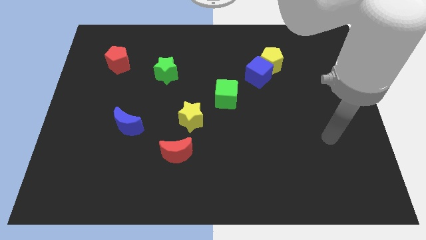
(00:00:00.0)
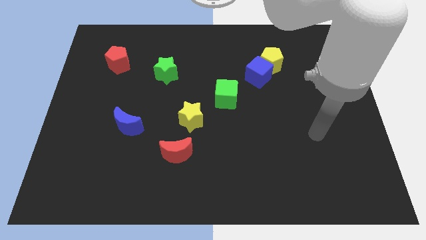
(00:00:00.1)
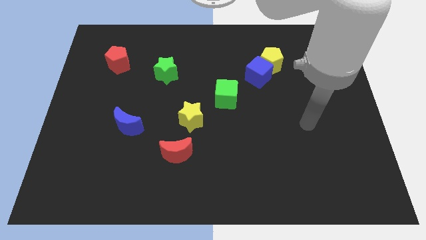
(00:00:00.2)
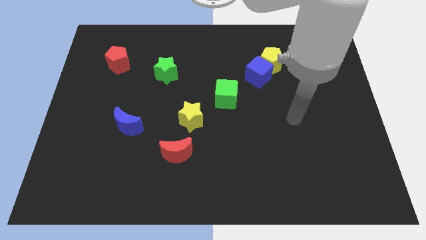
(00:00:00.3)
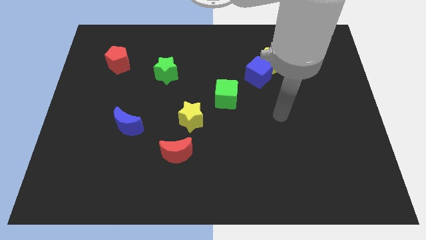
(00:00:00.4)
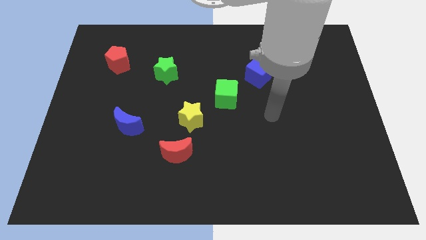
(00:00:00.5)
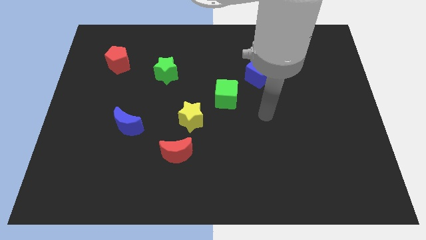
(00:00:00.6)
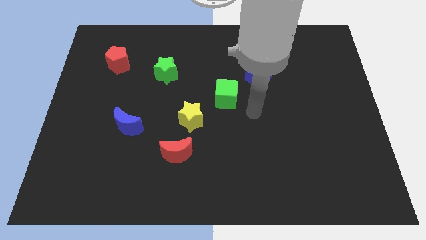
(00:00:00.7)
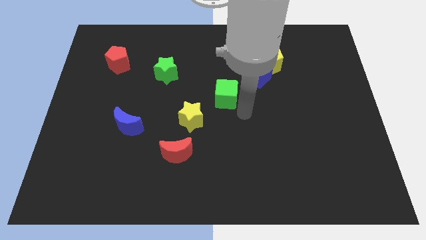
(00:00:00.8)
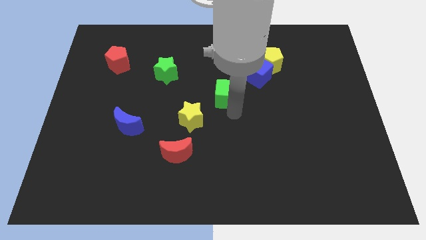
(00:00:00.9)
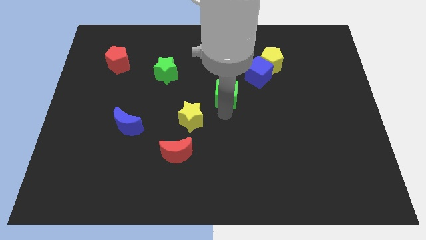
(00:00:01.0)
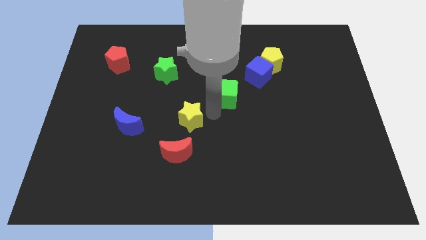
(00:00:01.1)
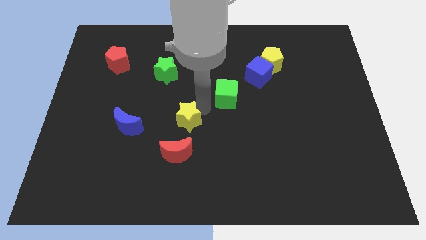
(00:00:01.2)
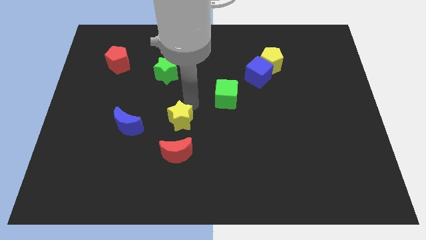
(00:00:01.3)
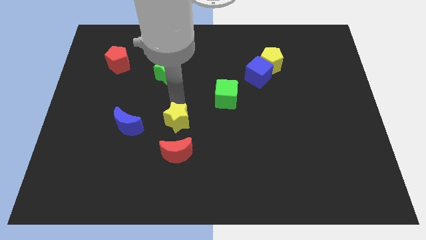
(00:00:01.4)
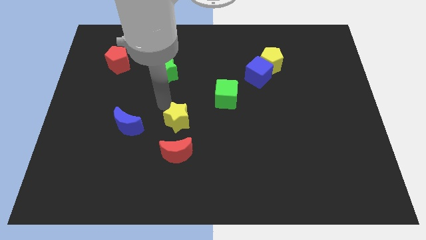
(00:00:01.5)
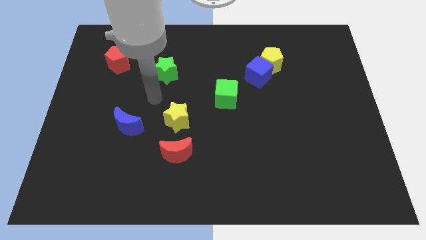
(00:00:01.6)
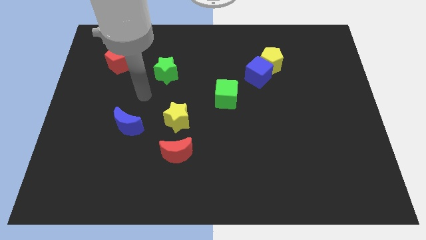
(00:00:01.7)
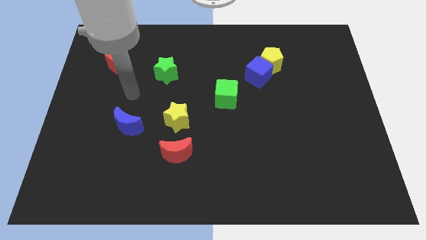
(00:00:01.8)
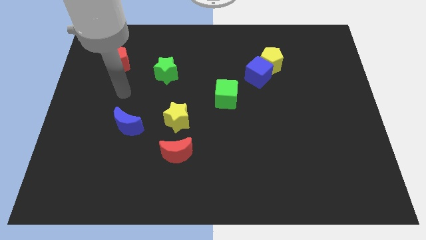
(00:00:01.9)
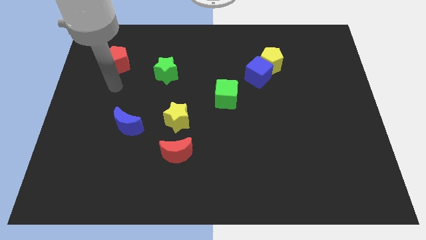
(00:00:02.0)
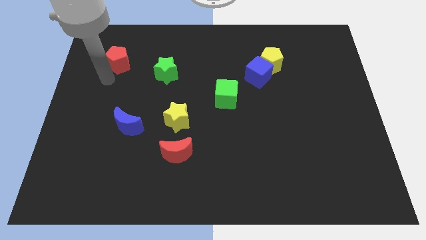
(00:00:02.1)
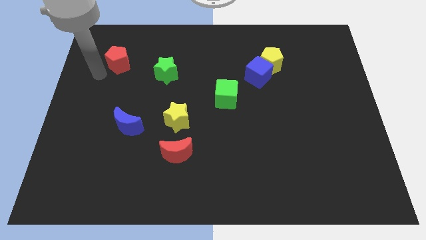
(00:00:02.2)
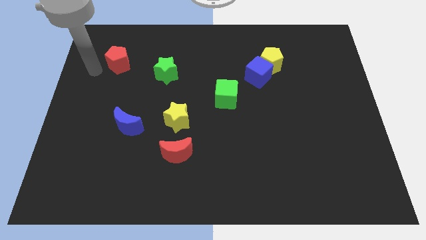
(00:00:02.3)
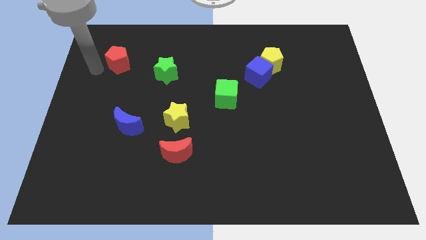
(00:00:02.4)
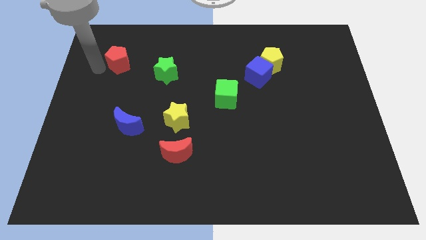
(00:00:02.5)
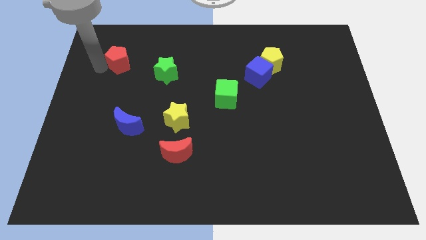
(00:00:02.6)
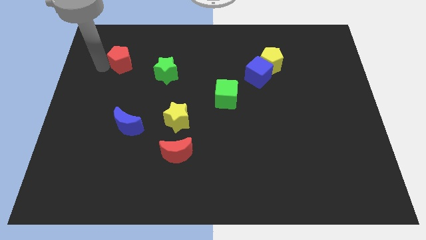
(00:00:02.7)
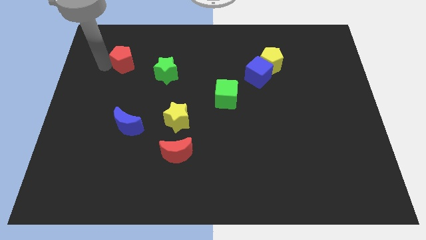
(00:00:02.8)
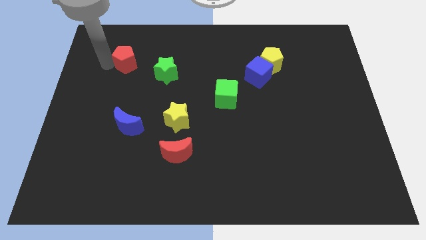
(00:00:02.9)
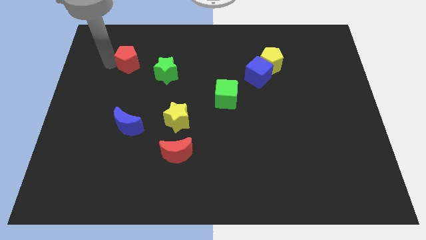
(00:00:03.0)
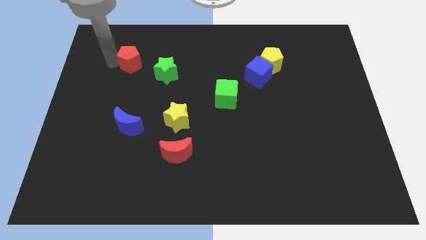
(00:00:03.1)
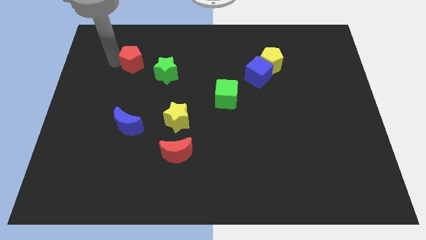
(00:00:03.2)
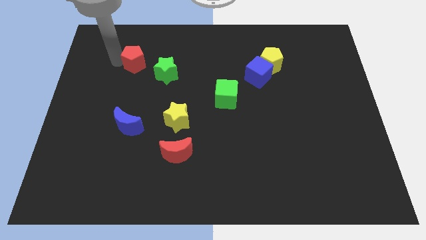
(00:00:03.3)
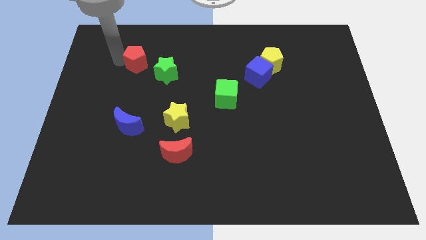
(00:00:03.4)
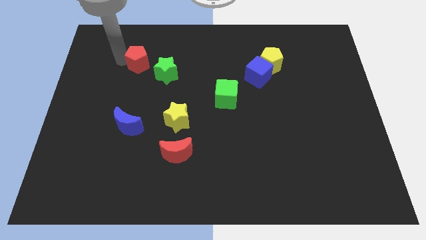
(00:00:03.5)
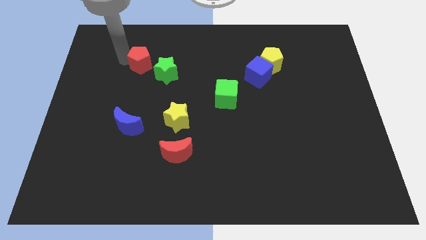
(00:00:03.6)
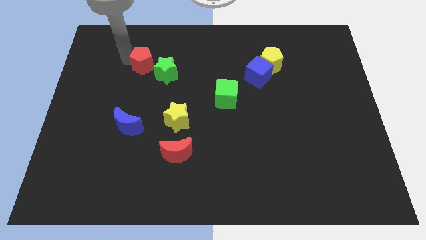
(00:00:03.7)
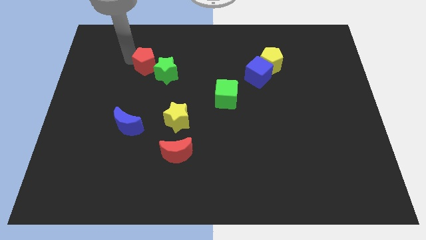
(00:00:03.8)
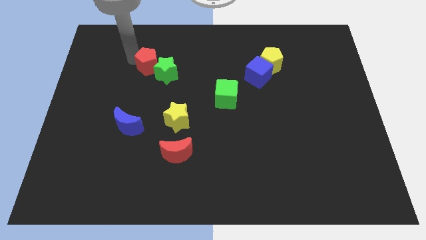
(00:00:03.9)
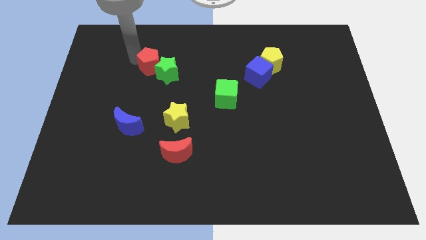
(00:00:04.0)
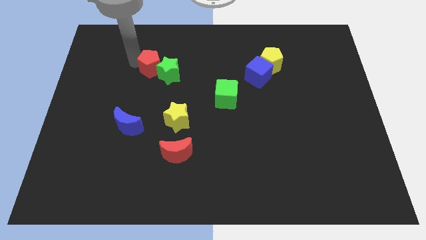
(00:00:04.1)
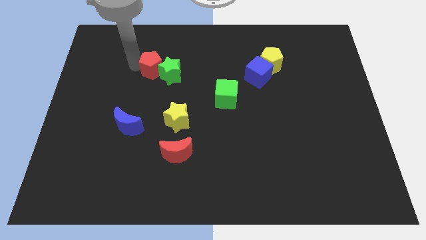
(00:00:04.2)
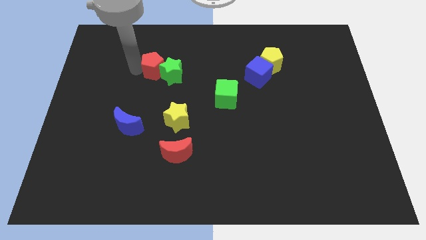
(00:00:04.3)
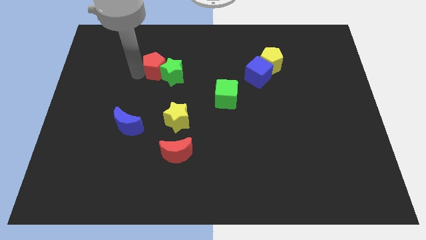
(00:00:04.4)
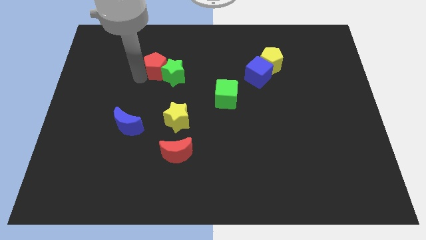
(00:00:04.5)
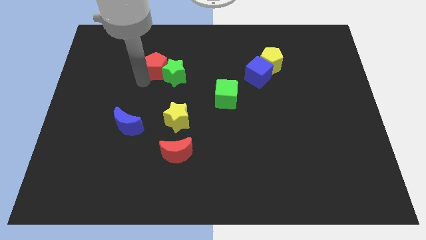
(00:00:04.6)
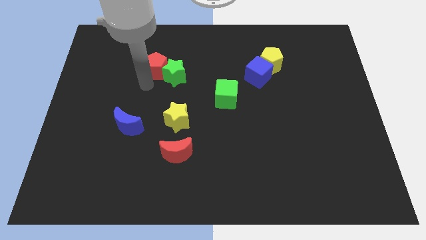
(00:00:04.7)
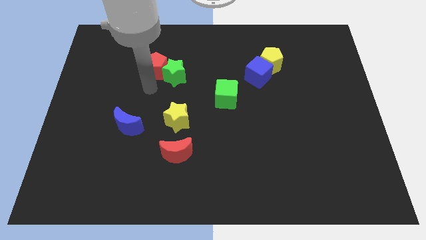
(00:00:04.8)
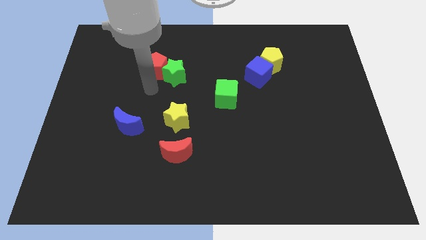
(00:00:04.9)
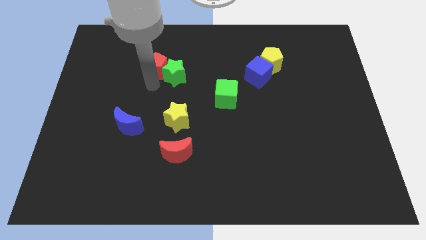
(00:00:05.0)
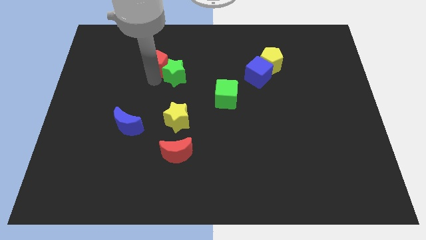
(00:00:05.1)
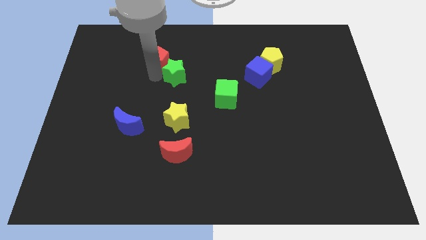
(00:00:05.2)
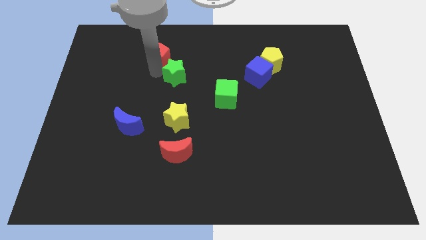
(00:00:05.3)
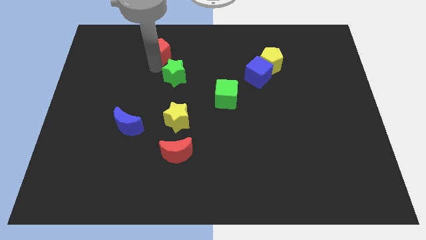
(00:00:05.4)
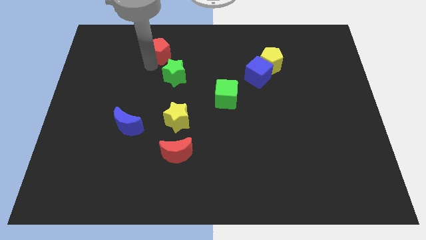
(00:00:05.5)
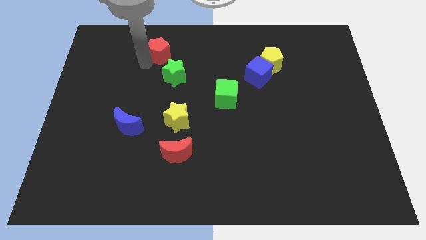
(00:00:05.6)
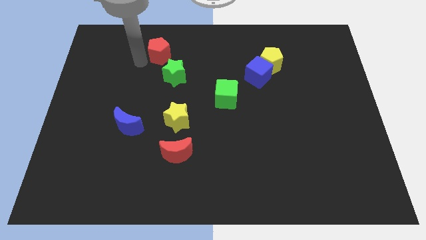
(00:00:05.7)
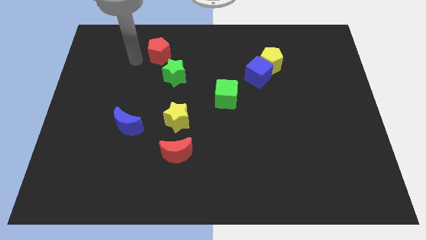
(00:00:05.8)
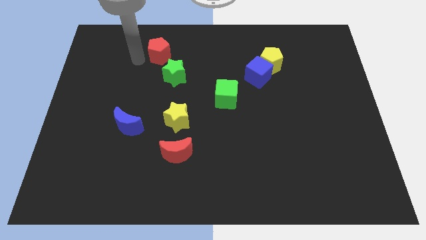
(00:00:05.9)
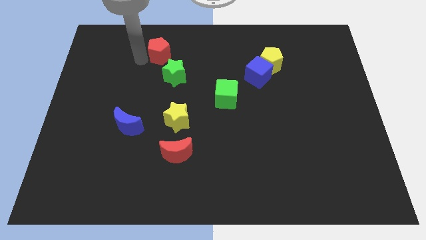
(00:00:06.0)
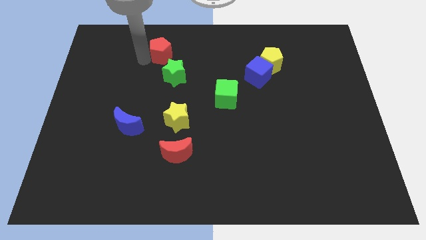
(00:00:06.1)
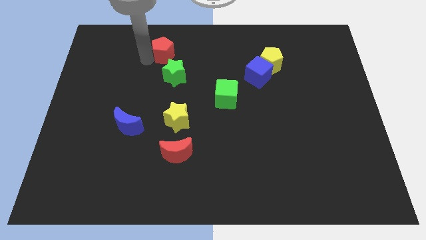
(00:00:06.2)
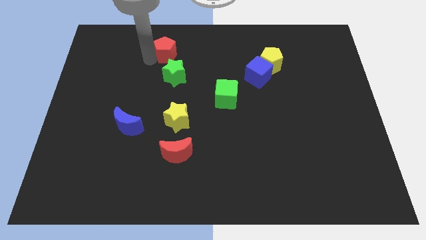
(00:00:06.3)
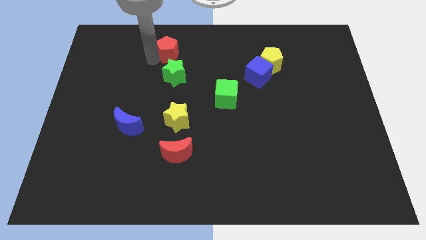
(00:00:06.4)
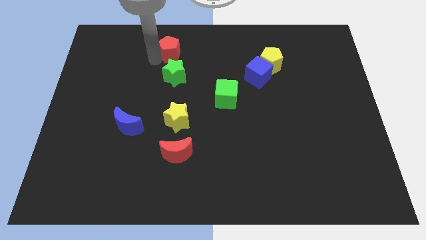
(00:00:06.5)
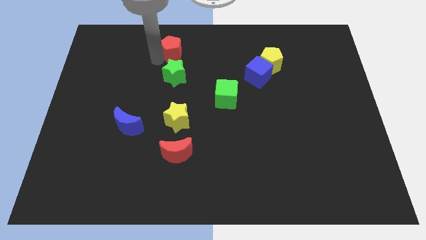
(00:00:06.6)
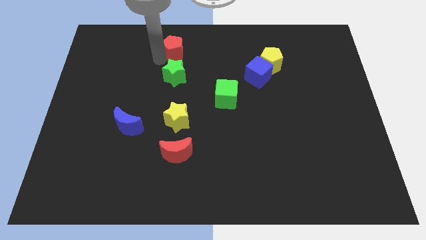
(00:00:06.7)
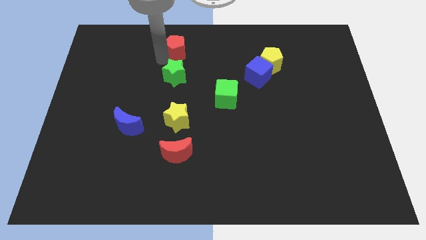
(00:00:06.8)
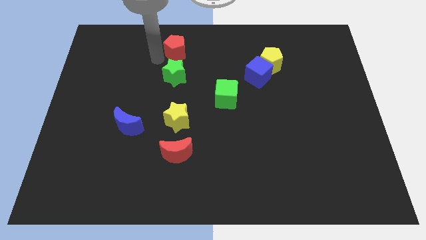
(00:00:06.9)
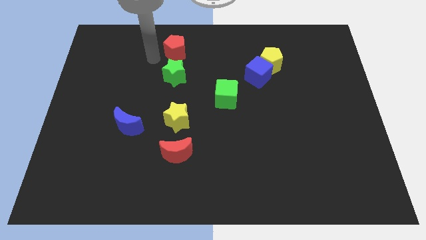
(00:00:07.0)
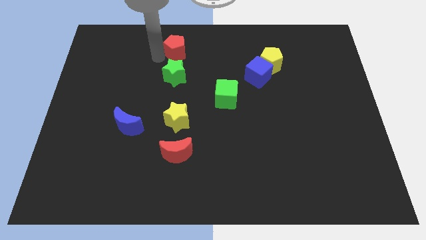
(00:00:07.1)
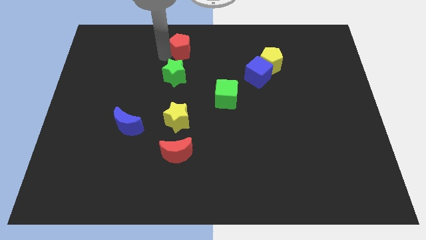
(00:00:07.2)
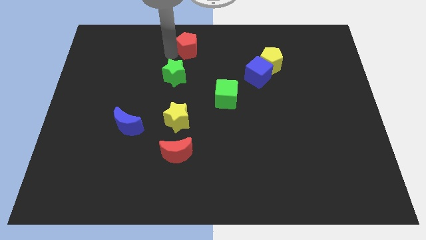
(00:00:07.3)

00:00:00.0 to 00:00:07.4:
put the red pentagon to the towards your base

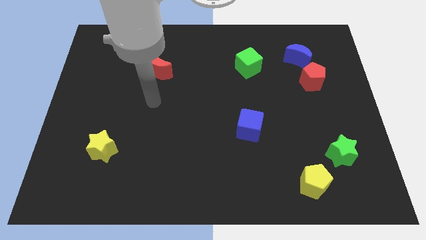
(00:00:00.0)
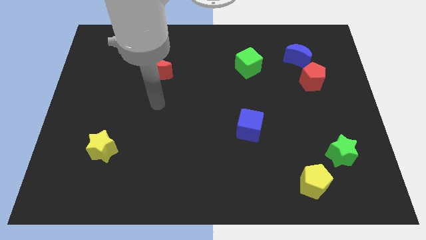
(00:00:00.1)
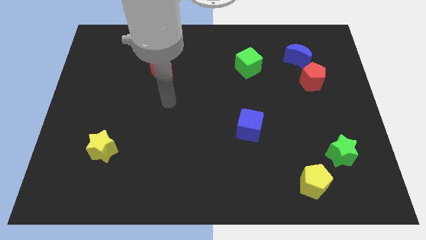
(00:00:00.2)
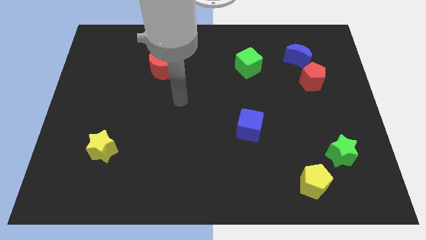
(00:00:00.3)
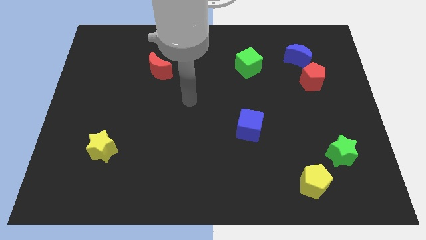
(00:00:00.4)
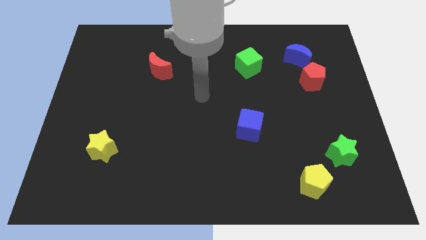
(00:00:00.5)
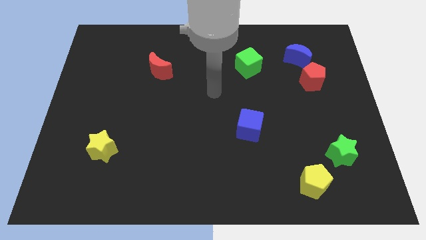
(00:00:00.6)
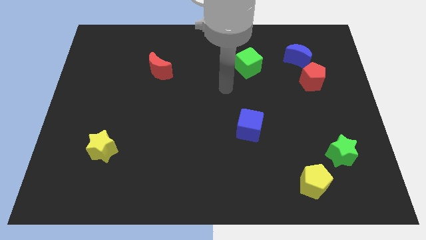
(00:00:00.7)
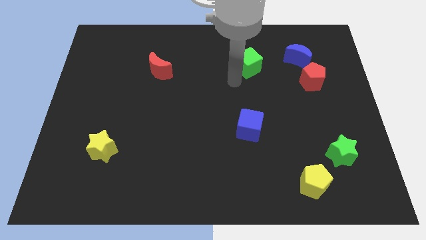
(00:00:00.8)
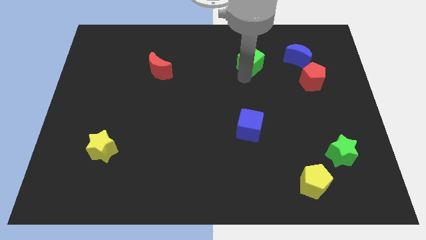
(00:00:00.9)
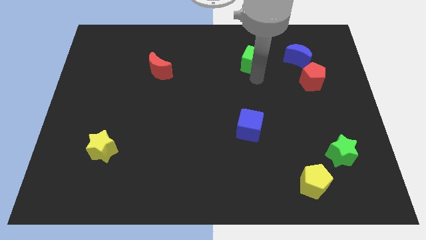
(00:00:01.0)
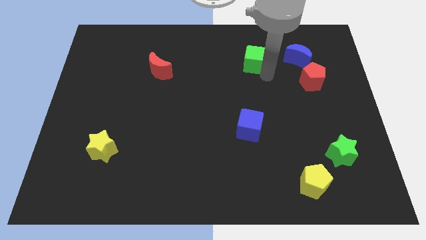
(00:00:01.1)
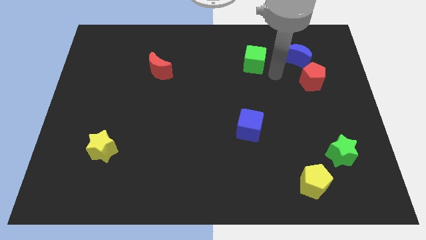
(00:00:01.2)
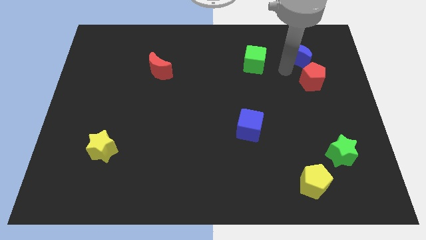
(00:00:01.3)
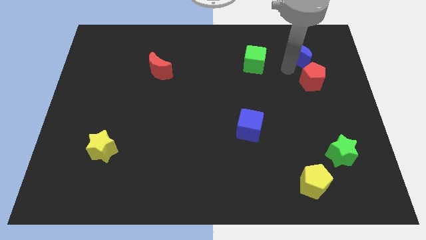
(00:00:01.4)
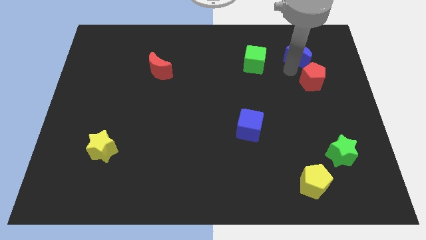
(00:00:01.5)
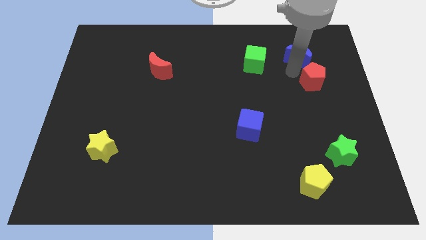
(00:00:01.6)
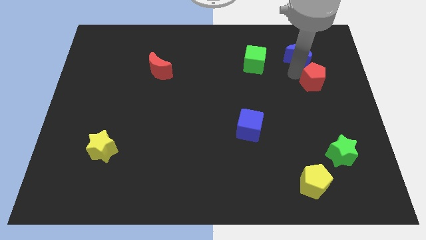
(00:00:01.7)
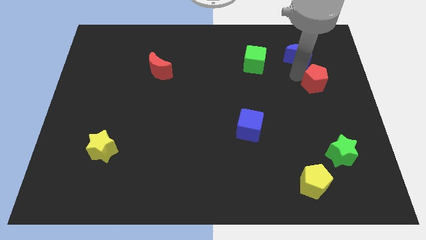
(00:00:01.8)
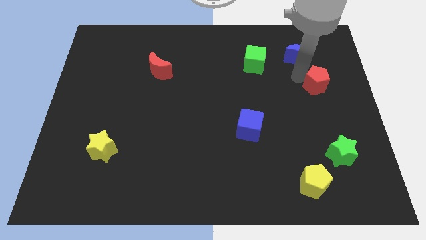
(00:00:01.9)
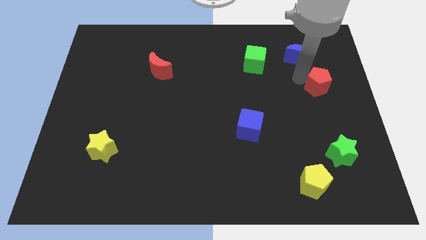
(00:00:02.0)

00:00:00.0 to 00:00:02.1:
put the red pentagon to the right side of the board
